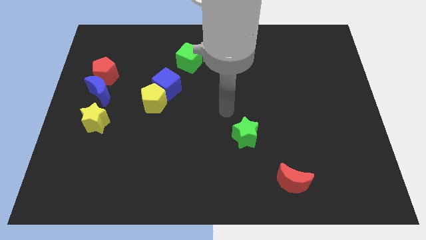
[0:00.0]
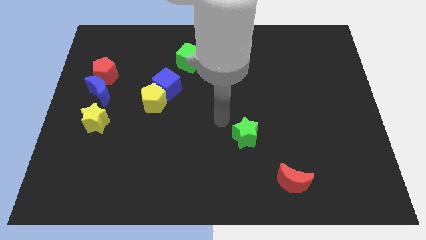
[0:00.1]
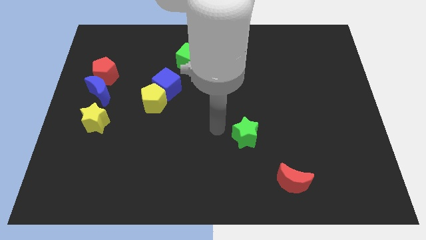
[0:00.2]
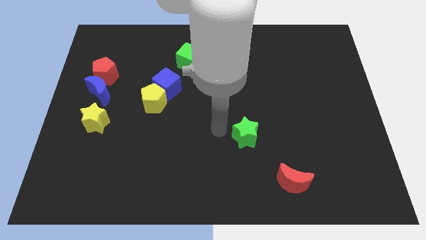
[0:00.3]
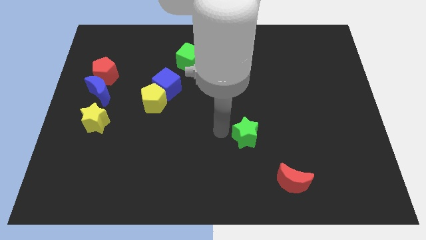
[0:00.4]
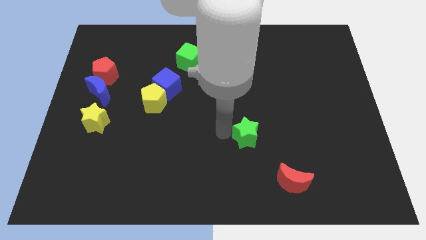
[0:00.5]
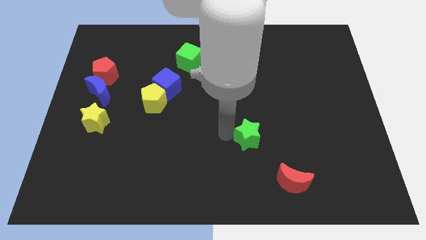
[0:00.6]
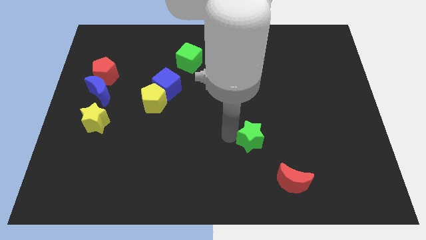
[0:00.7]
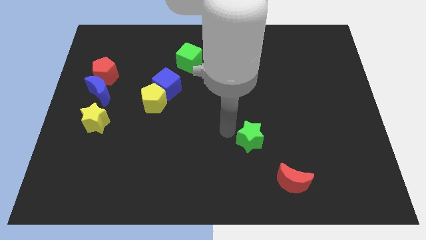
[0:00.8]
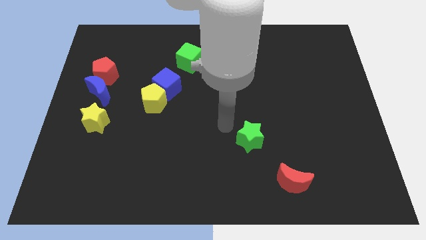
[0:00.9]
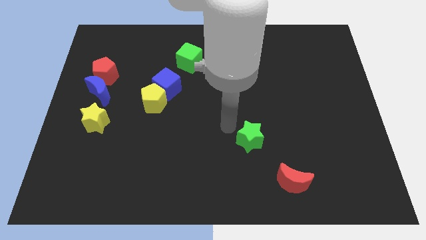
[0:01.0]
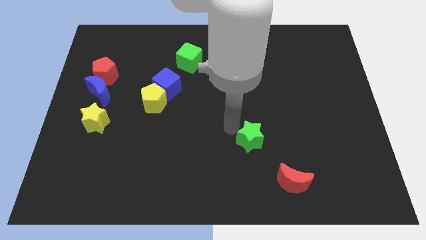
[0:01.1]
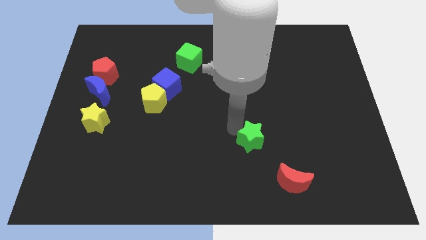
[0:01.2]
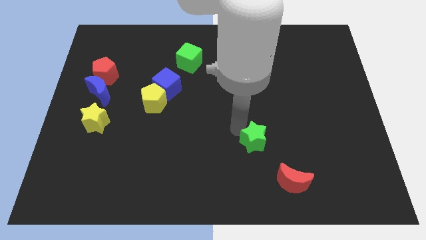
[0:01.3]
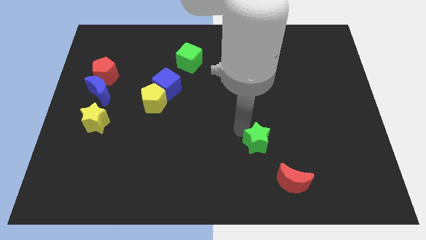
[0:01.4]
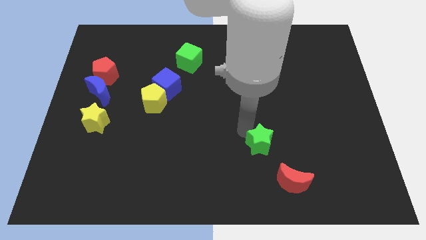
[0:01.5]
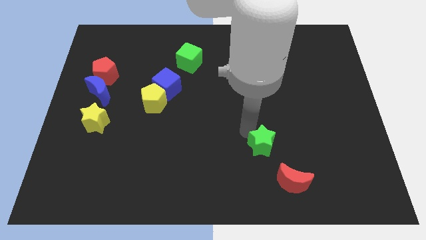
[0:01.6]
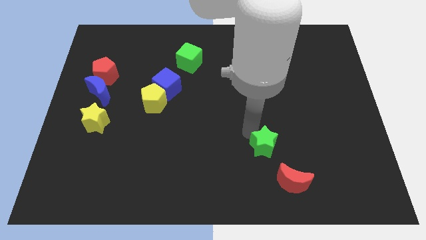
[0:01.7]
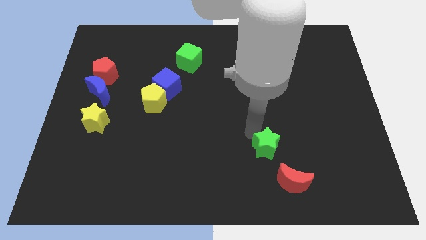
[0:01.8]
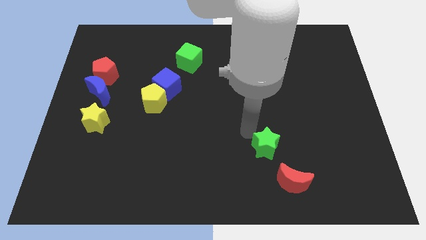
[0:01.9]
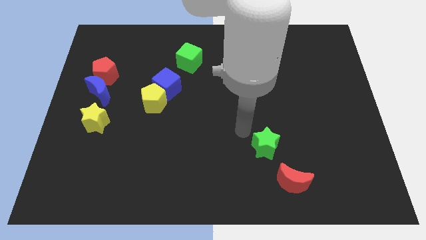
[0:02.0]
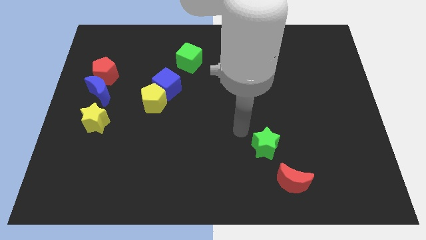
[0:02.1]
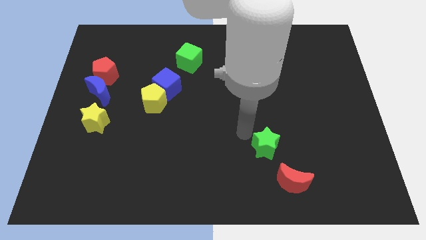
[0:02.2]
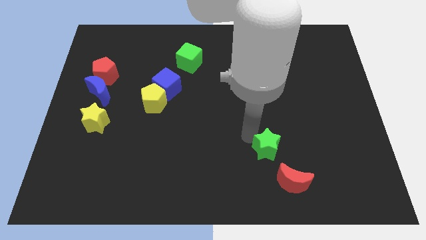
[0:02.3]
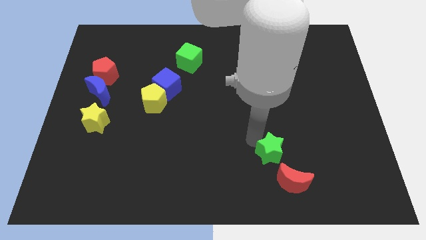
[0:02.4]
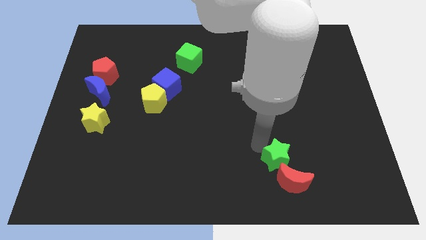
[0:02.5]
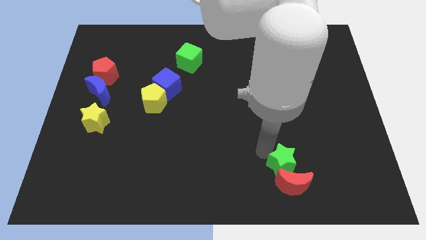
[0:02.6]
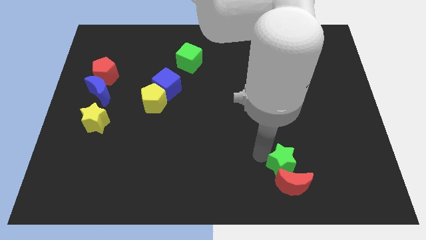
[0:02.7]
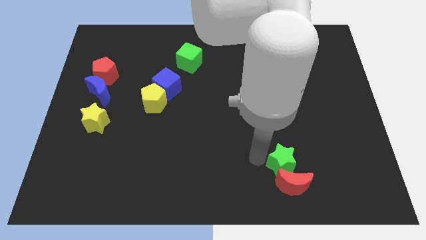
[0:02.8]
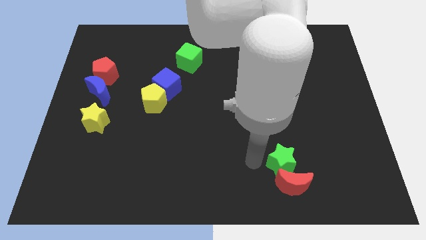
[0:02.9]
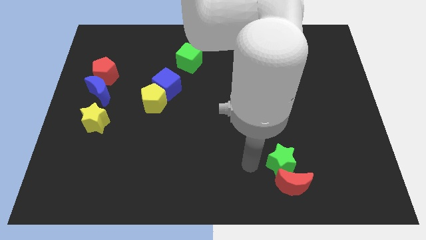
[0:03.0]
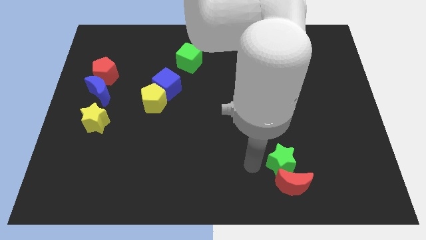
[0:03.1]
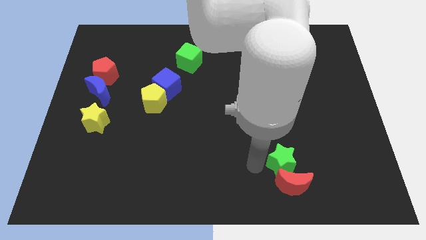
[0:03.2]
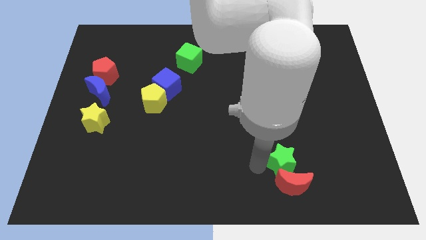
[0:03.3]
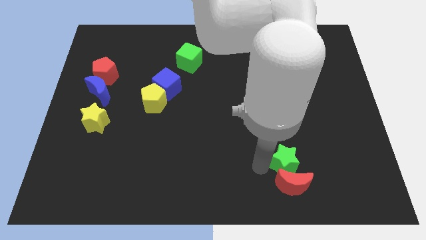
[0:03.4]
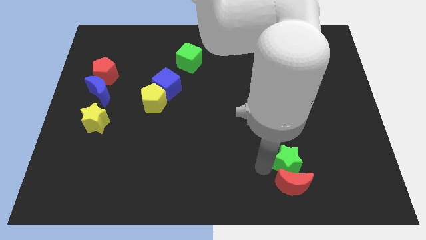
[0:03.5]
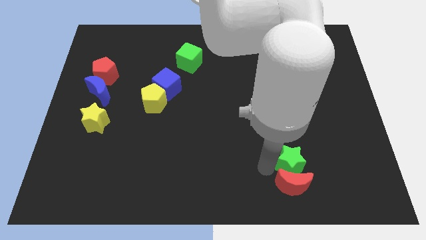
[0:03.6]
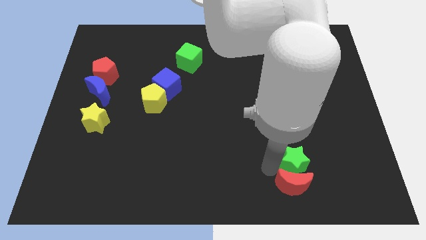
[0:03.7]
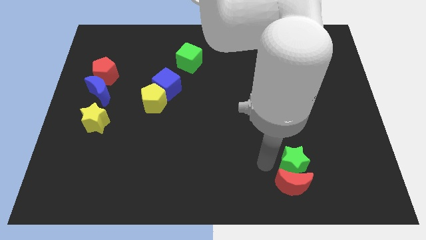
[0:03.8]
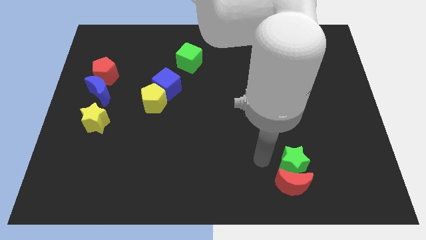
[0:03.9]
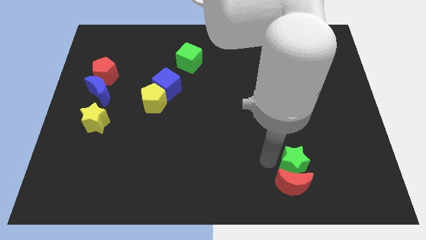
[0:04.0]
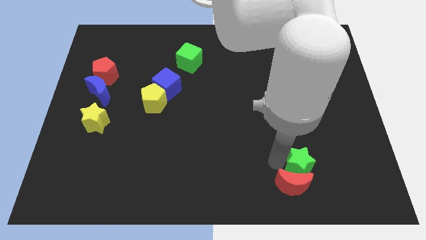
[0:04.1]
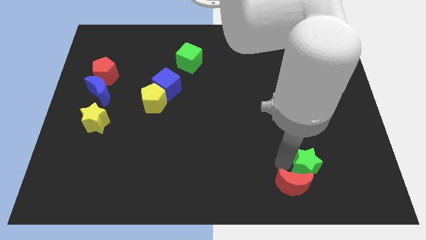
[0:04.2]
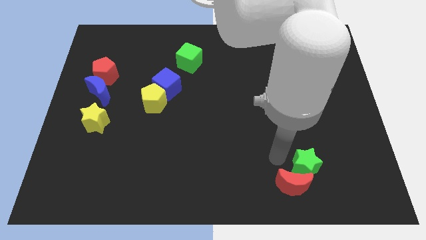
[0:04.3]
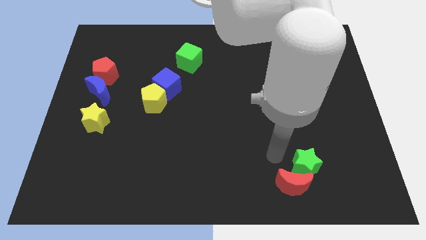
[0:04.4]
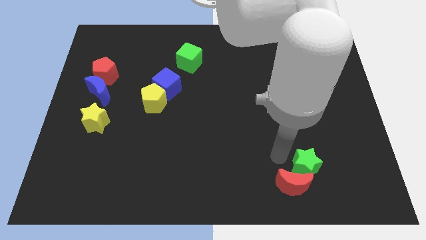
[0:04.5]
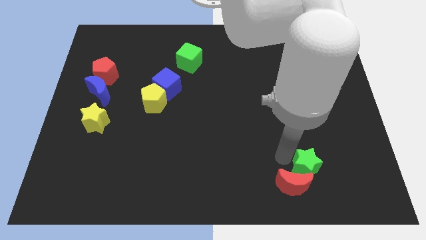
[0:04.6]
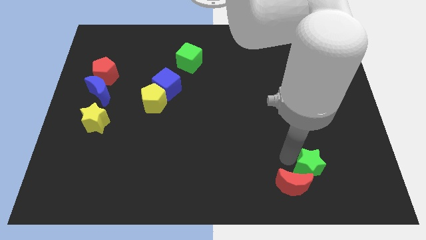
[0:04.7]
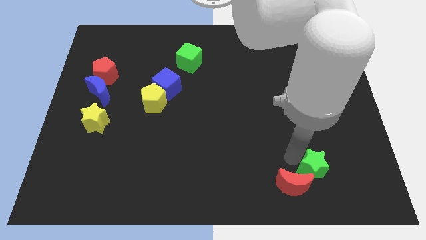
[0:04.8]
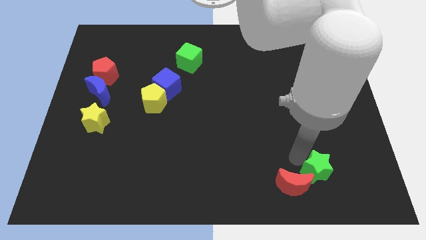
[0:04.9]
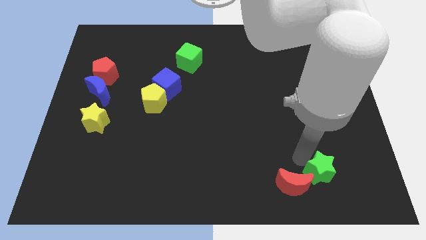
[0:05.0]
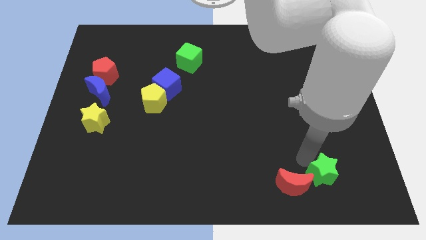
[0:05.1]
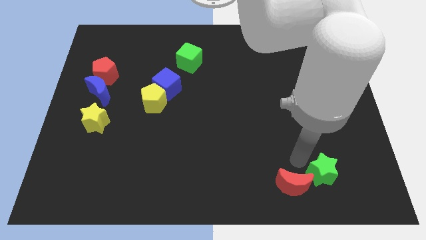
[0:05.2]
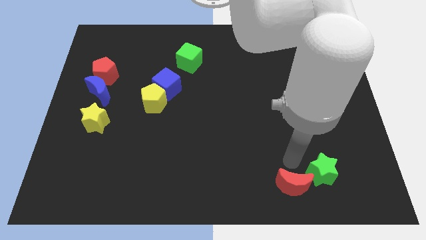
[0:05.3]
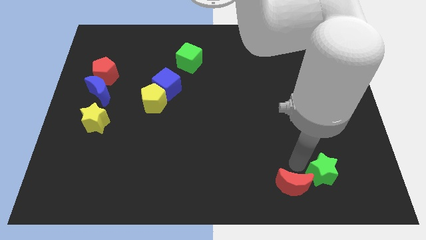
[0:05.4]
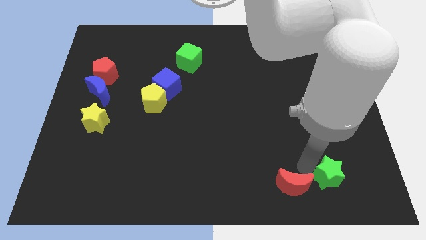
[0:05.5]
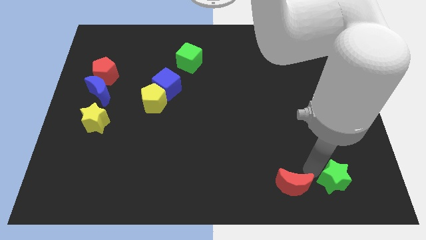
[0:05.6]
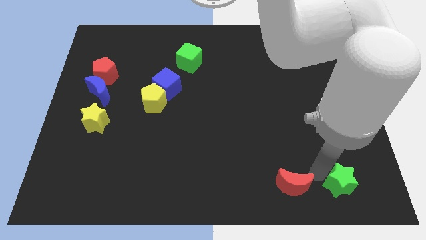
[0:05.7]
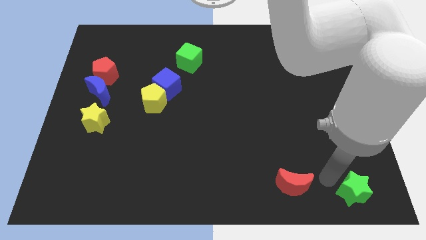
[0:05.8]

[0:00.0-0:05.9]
move the green star to the bottom right corner

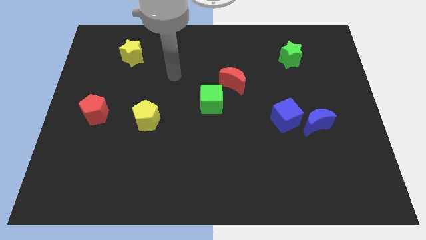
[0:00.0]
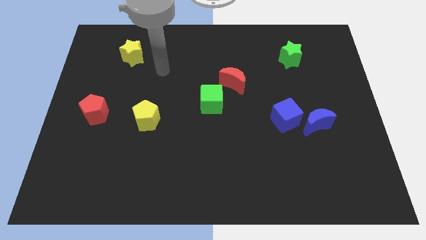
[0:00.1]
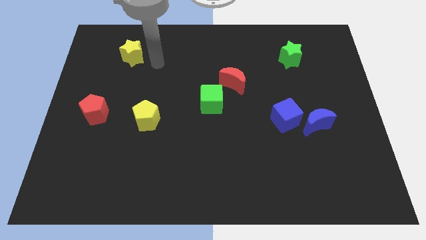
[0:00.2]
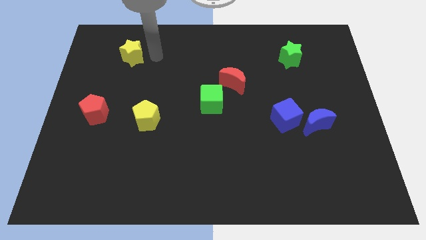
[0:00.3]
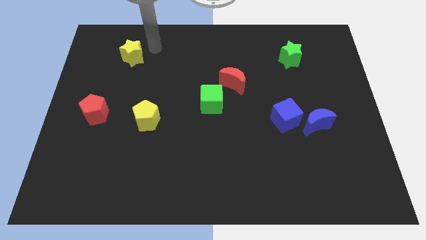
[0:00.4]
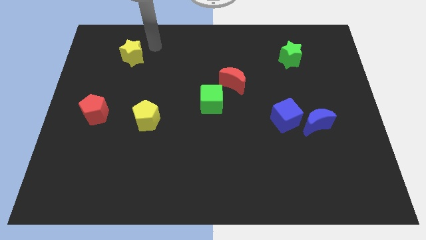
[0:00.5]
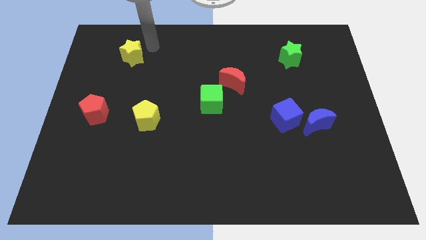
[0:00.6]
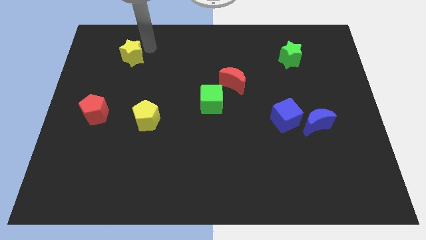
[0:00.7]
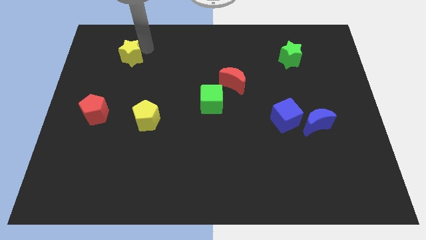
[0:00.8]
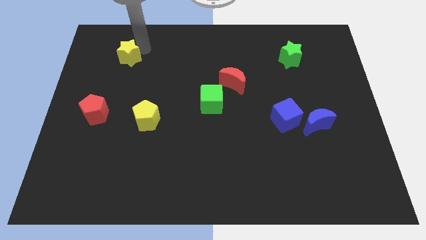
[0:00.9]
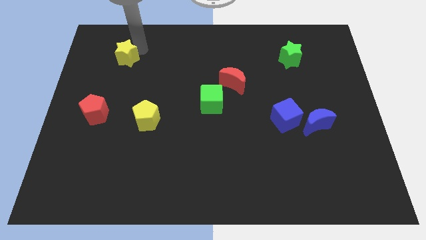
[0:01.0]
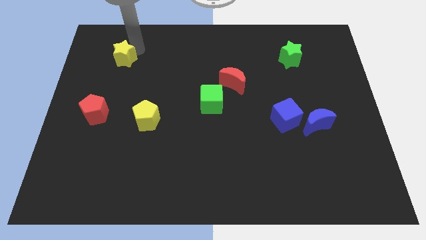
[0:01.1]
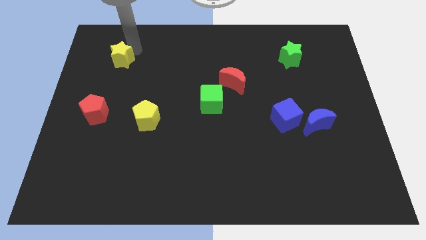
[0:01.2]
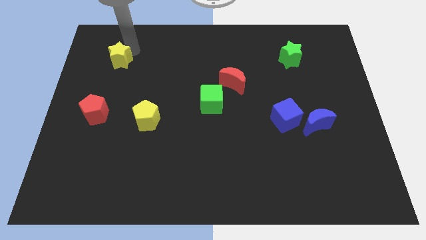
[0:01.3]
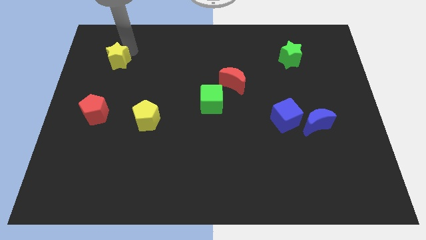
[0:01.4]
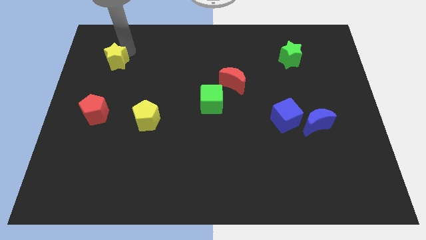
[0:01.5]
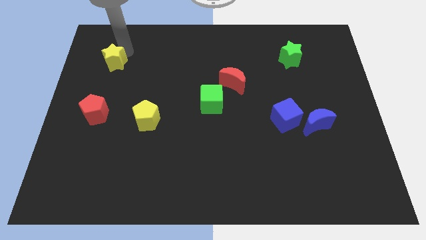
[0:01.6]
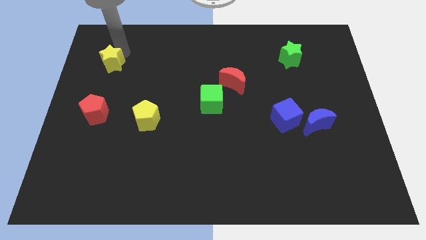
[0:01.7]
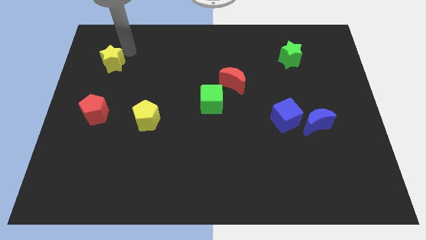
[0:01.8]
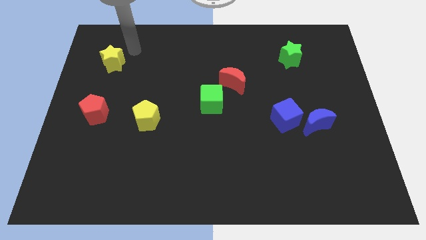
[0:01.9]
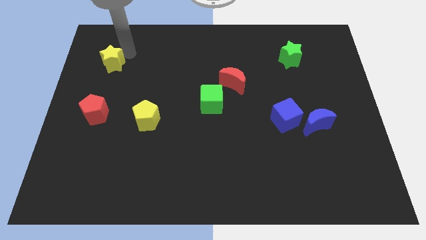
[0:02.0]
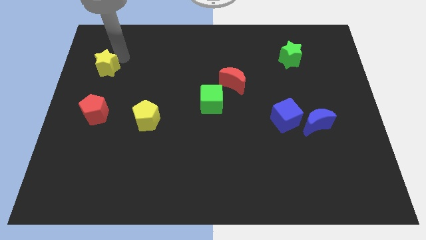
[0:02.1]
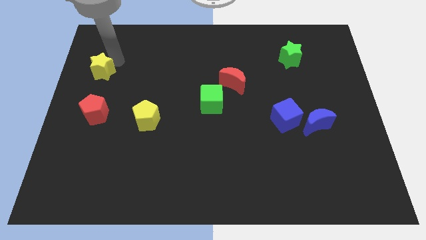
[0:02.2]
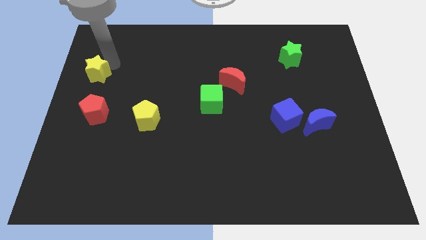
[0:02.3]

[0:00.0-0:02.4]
slide the yellow star to the left side of the board
